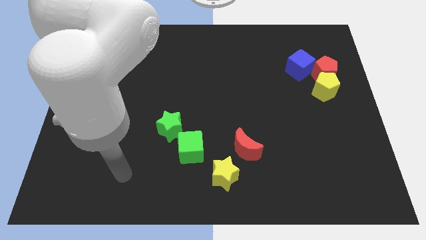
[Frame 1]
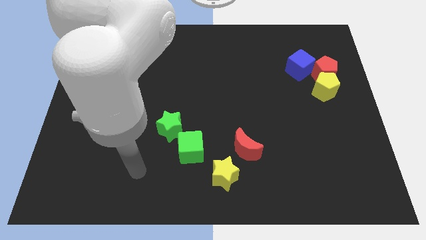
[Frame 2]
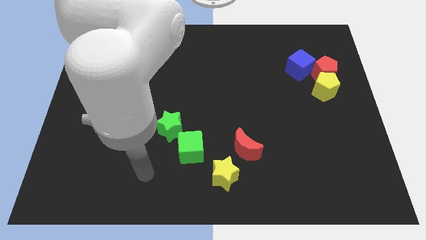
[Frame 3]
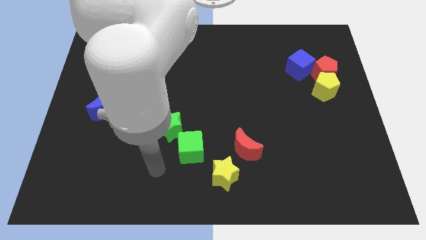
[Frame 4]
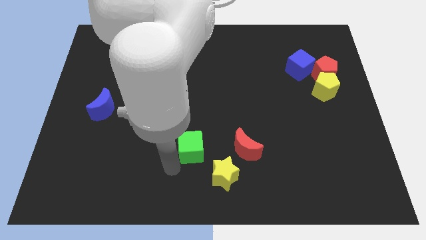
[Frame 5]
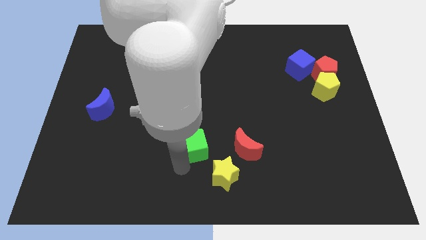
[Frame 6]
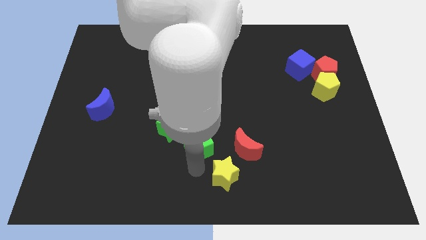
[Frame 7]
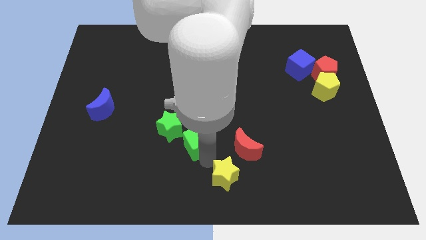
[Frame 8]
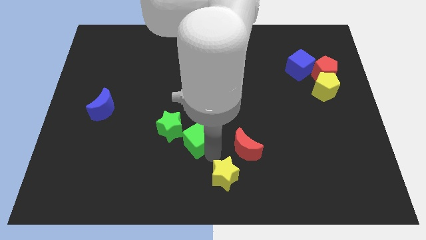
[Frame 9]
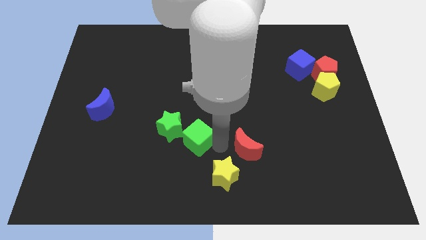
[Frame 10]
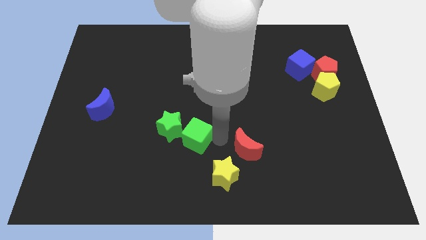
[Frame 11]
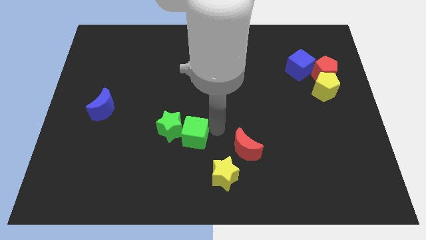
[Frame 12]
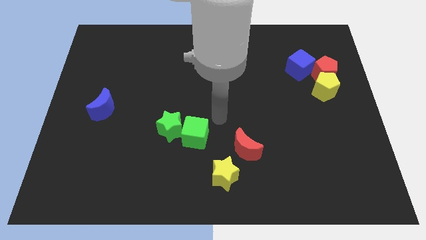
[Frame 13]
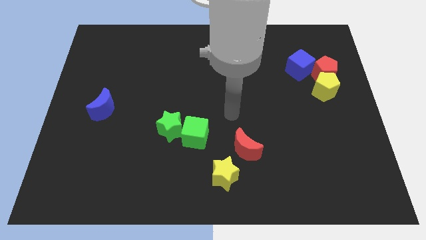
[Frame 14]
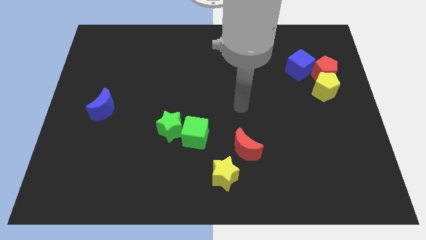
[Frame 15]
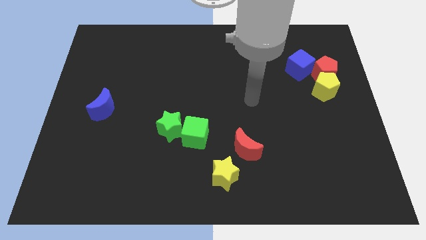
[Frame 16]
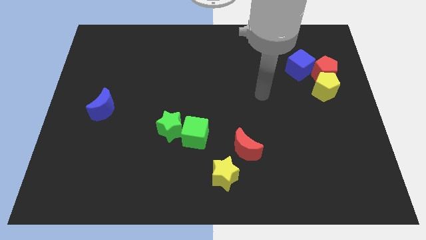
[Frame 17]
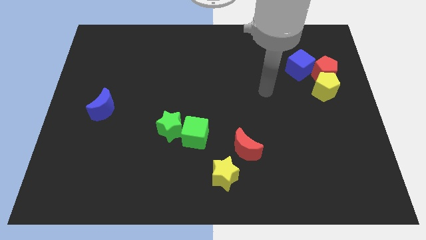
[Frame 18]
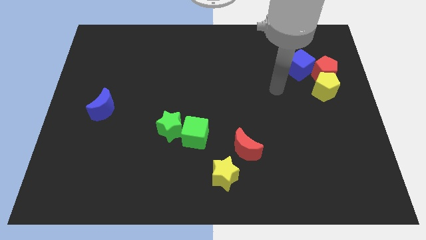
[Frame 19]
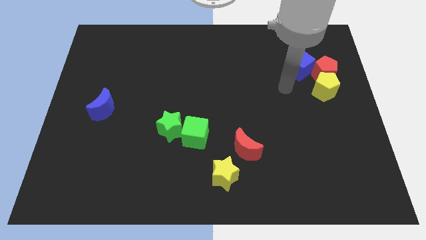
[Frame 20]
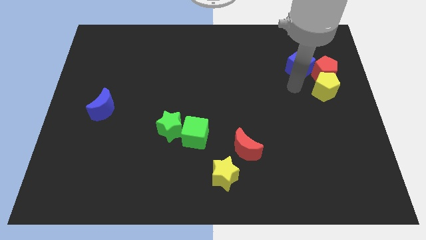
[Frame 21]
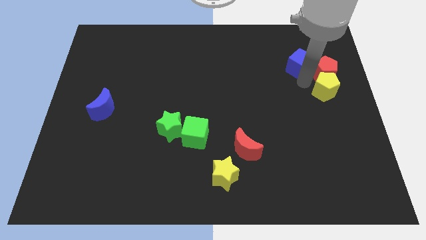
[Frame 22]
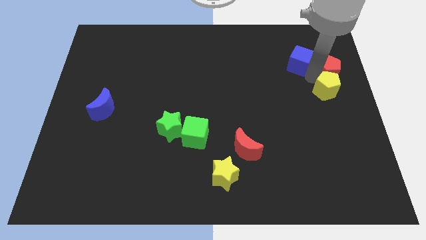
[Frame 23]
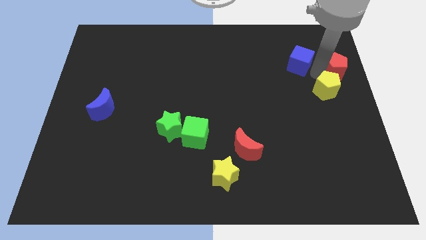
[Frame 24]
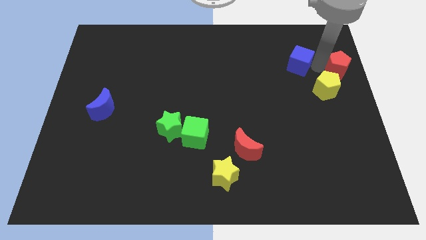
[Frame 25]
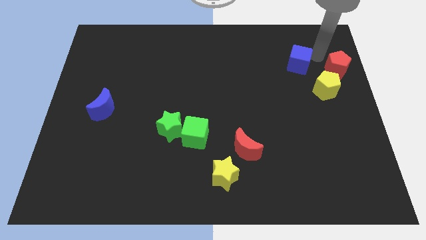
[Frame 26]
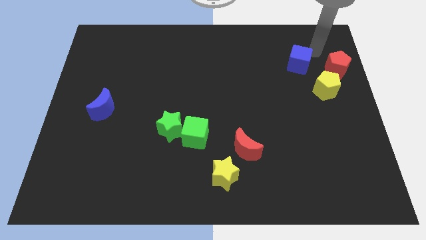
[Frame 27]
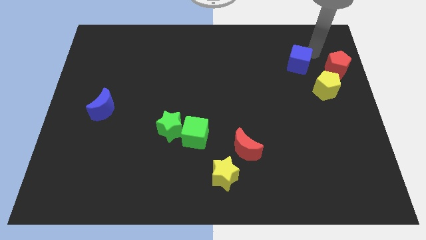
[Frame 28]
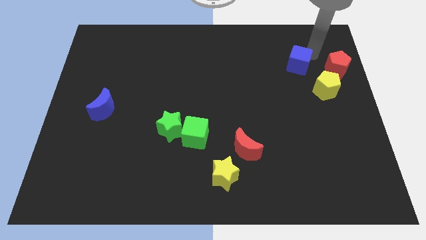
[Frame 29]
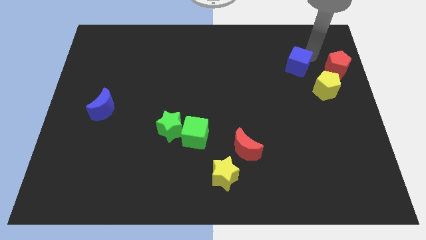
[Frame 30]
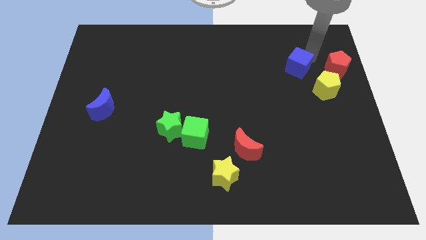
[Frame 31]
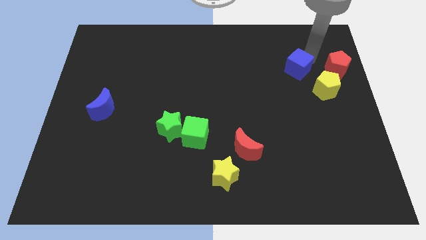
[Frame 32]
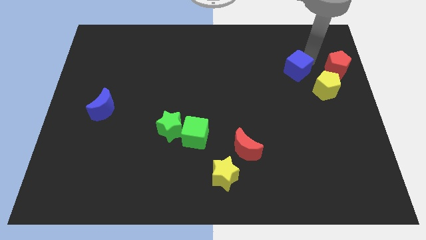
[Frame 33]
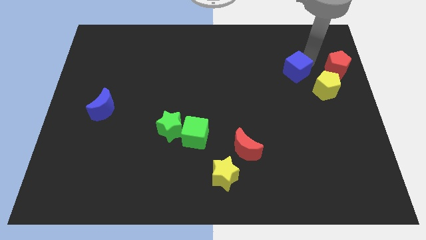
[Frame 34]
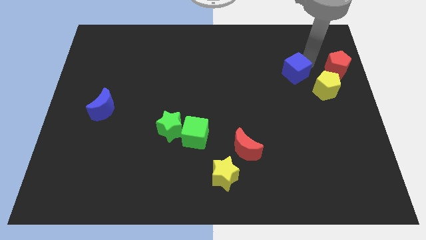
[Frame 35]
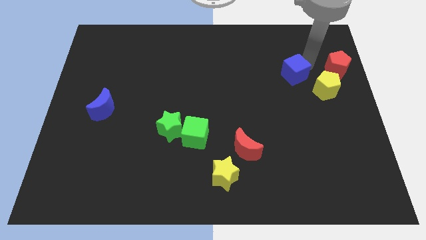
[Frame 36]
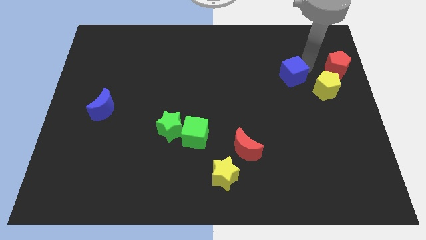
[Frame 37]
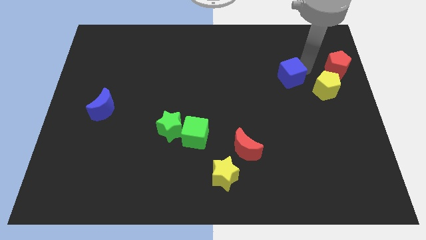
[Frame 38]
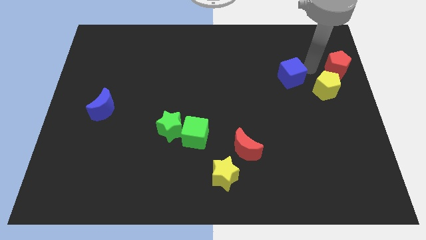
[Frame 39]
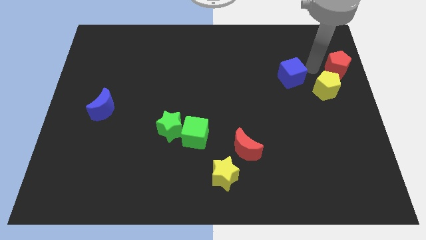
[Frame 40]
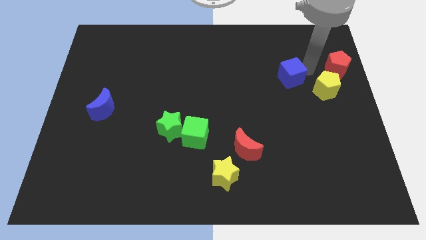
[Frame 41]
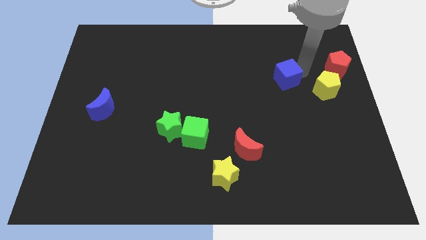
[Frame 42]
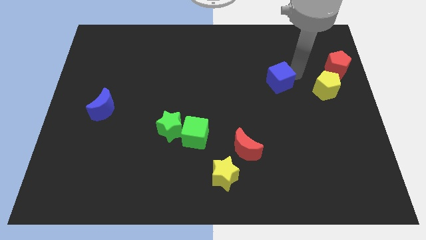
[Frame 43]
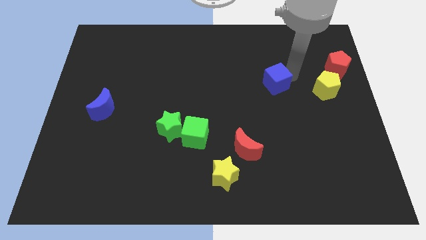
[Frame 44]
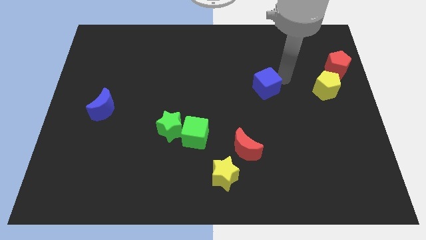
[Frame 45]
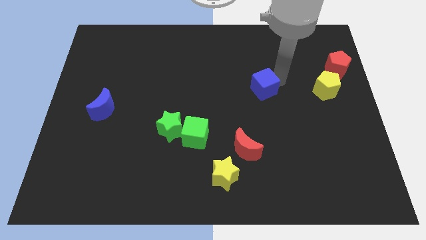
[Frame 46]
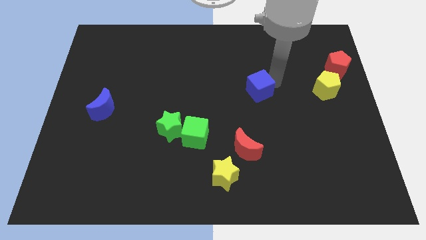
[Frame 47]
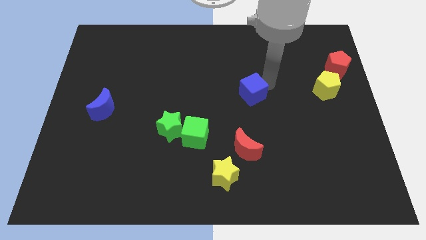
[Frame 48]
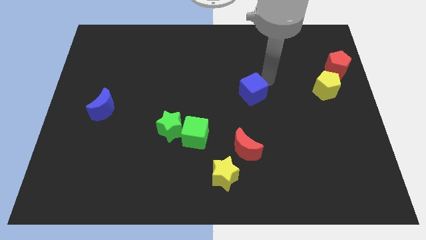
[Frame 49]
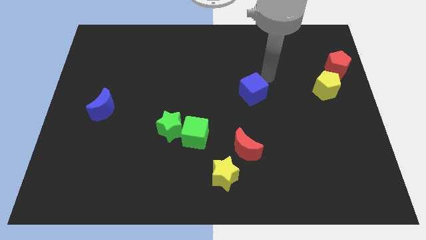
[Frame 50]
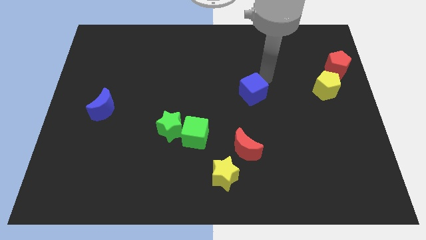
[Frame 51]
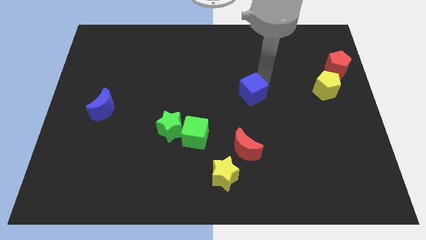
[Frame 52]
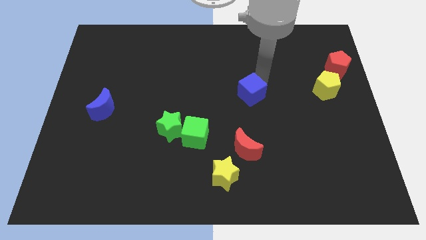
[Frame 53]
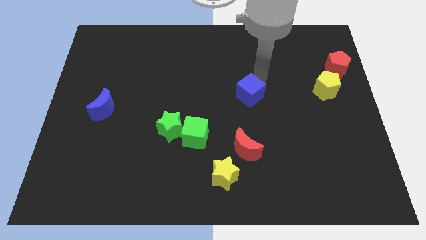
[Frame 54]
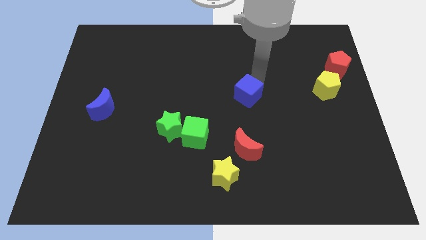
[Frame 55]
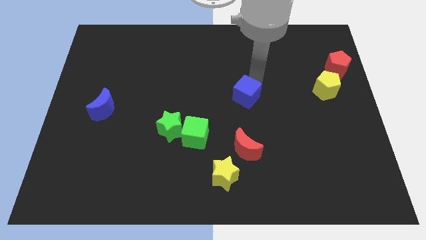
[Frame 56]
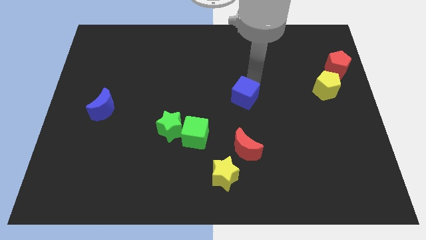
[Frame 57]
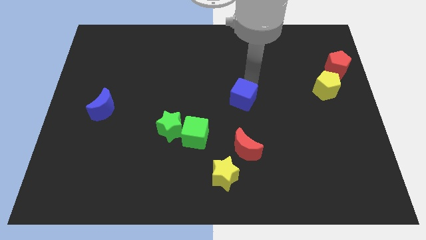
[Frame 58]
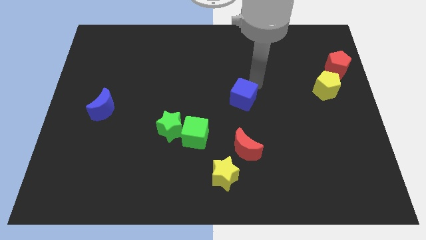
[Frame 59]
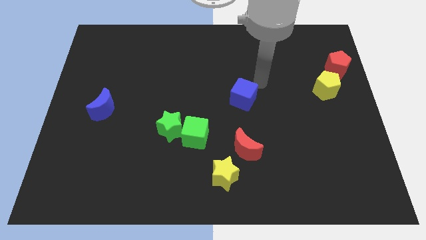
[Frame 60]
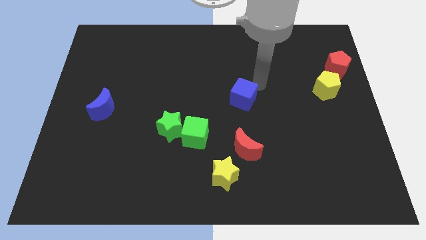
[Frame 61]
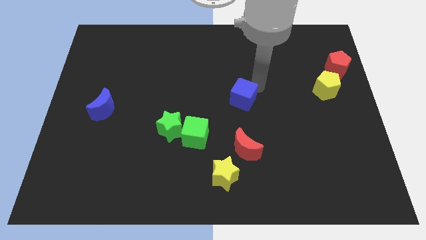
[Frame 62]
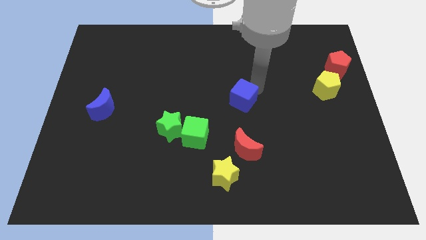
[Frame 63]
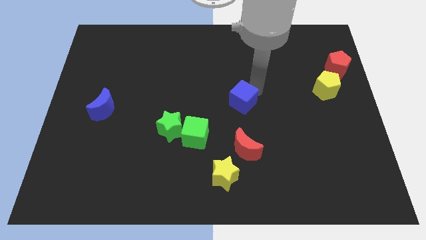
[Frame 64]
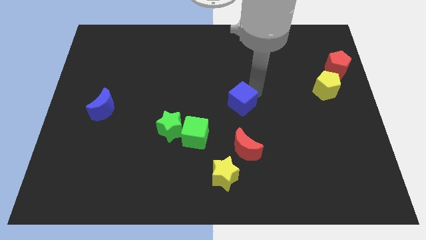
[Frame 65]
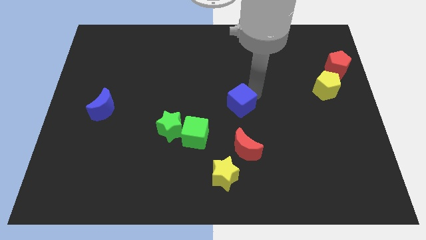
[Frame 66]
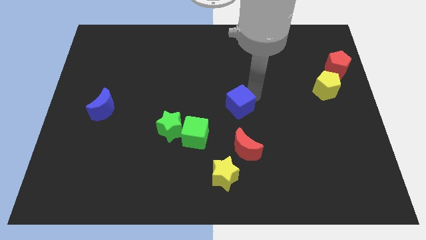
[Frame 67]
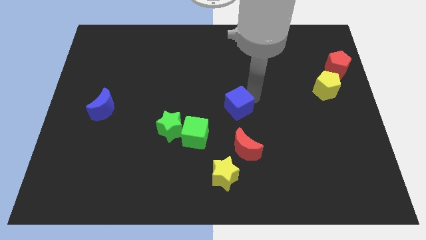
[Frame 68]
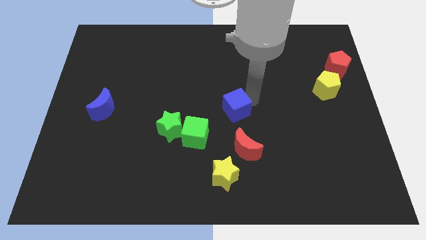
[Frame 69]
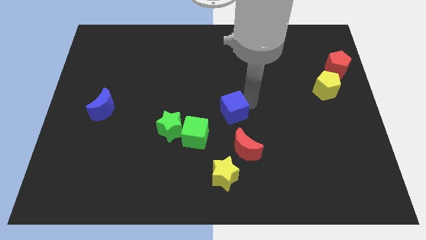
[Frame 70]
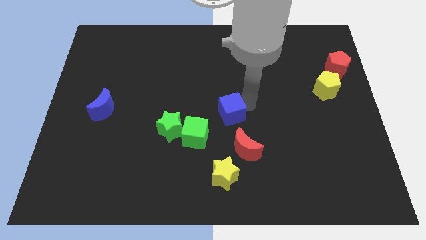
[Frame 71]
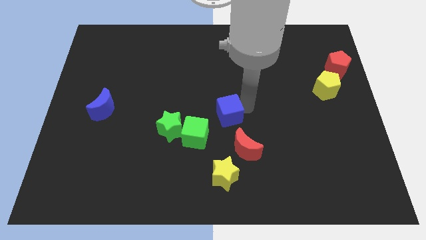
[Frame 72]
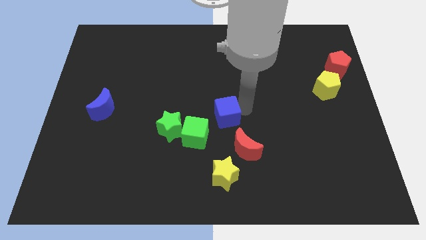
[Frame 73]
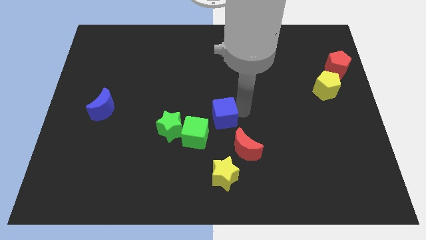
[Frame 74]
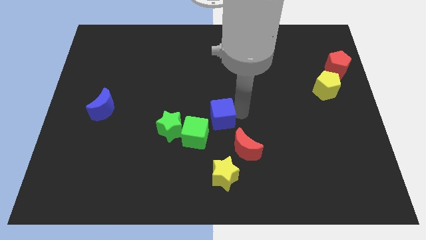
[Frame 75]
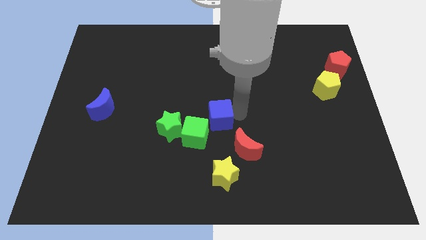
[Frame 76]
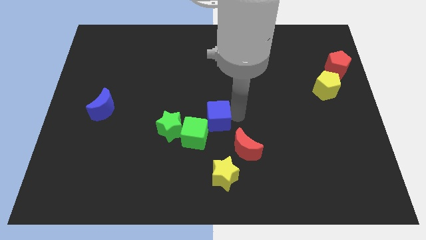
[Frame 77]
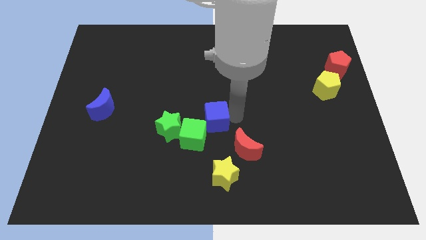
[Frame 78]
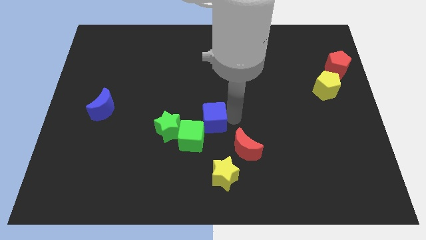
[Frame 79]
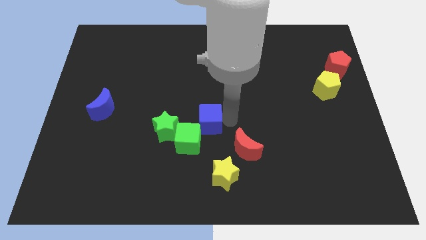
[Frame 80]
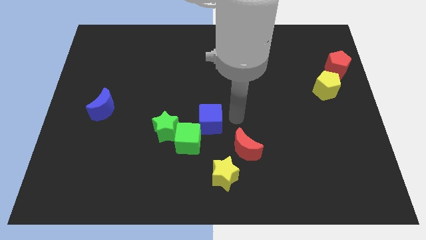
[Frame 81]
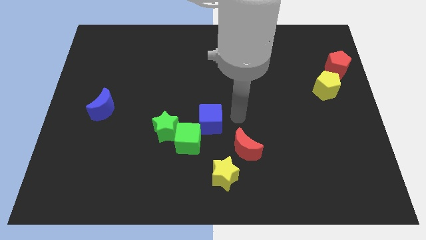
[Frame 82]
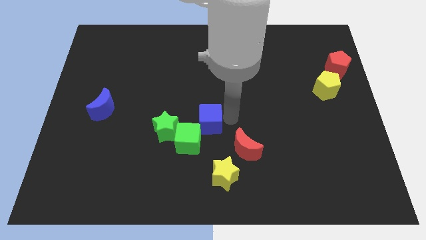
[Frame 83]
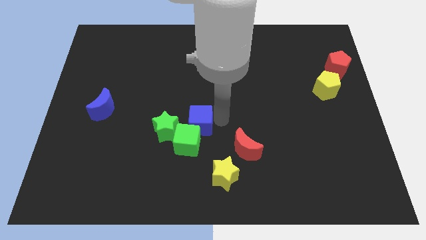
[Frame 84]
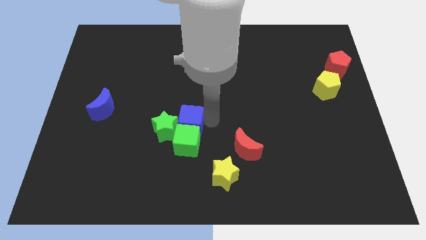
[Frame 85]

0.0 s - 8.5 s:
slide the blue cube to the green star
